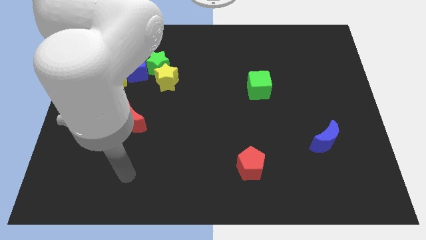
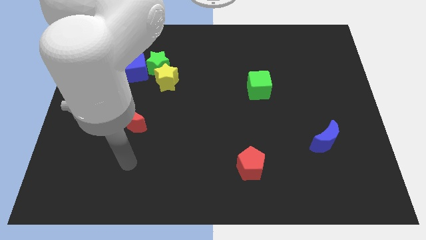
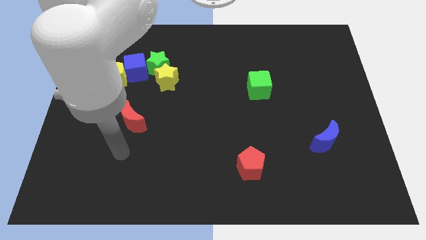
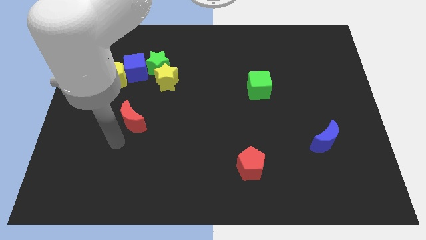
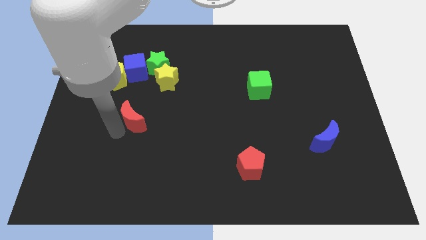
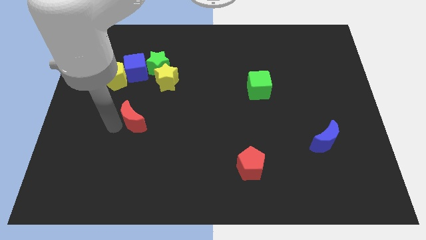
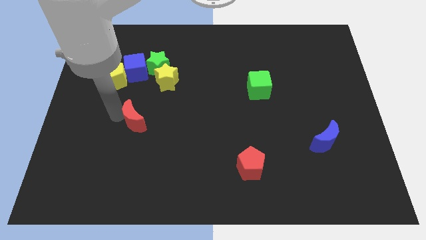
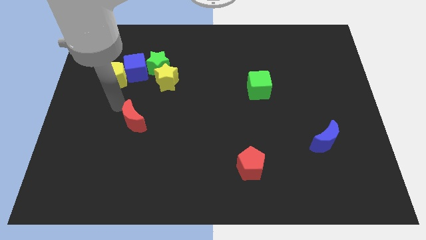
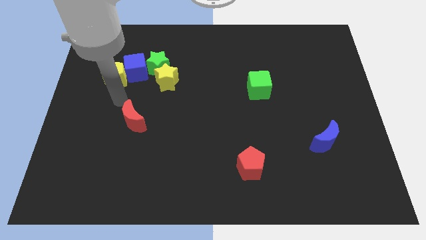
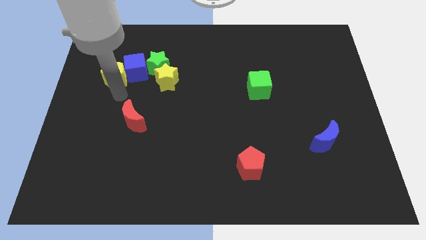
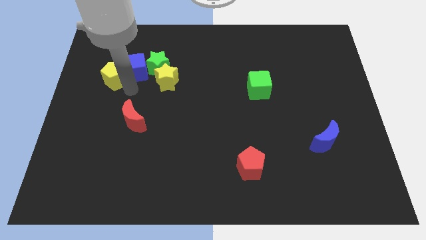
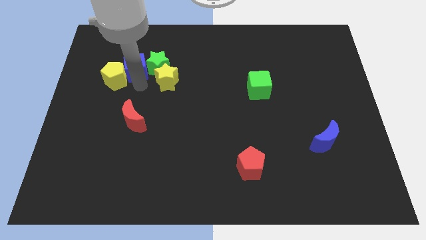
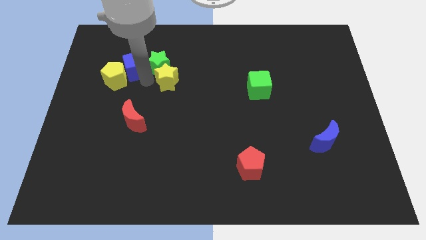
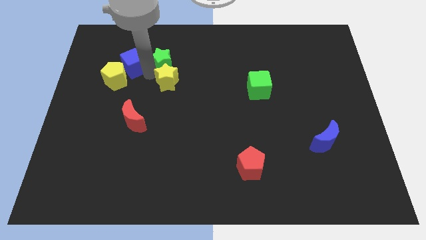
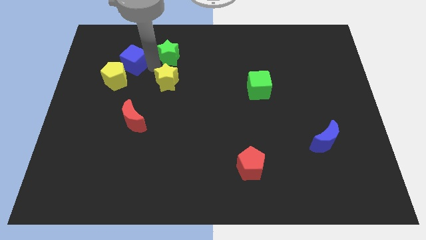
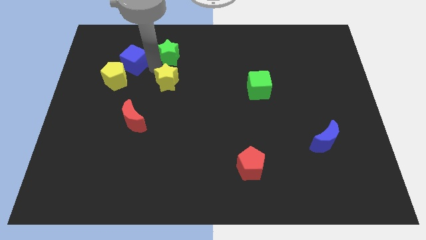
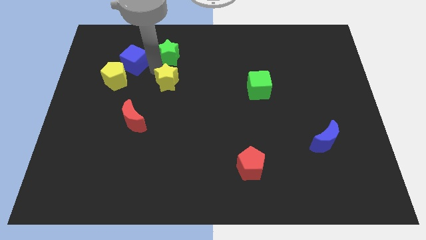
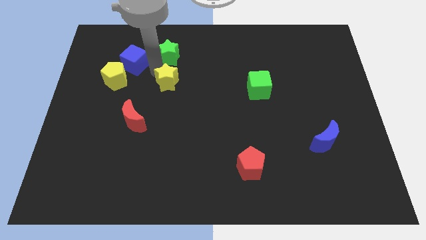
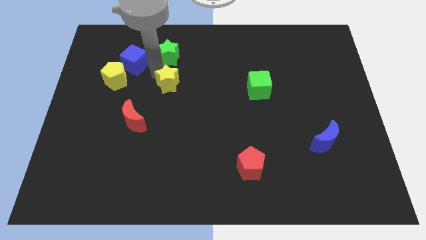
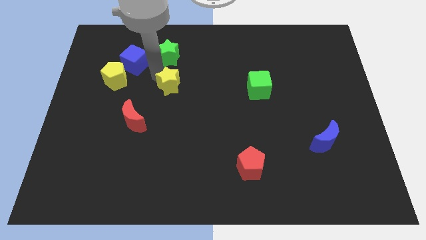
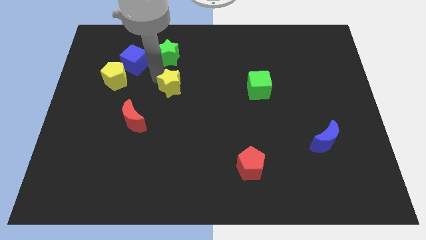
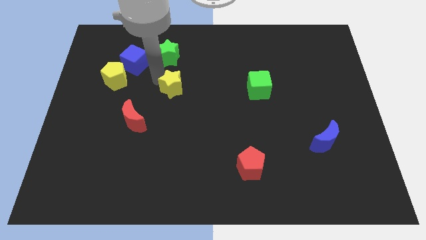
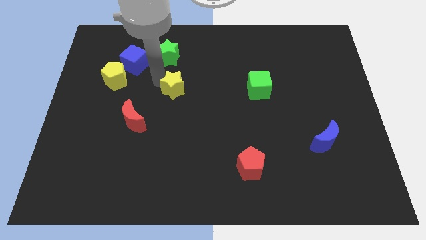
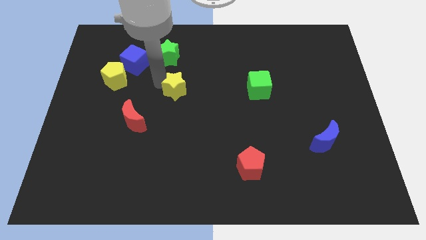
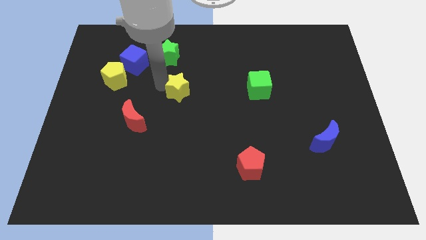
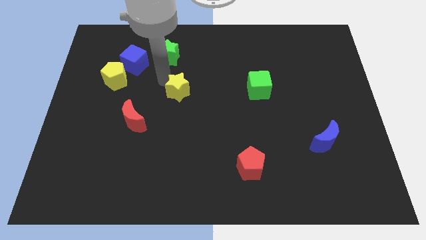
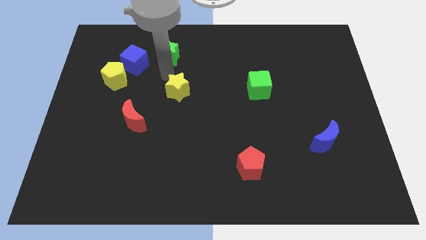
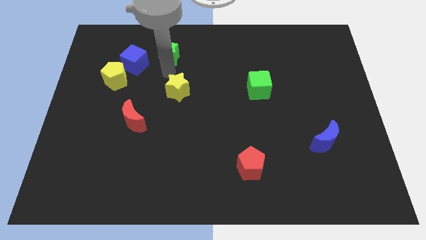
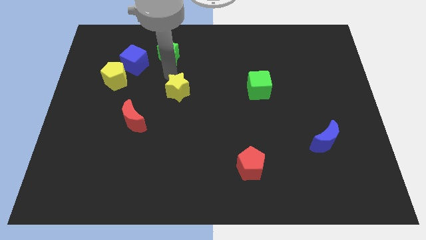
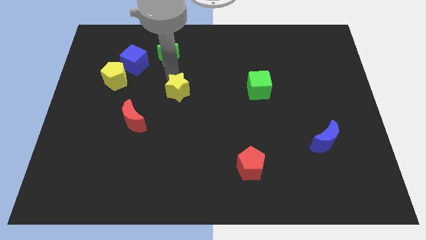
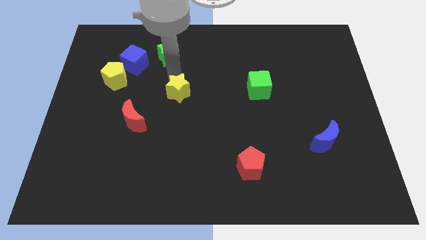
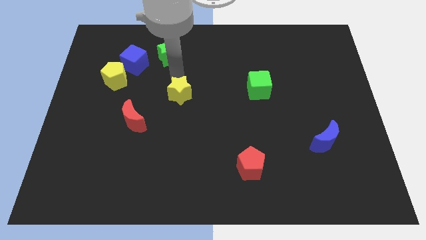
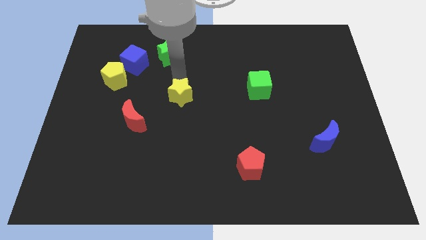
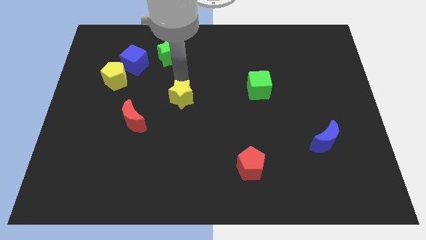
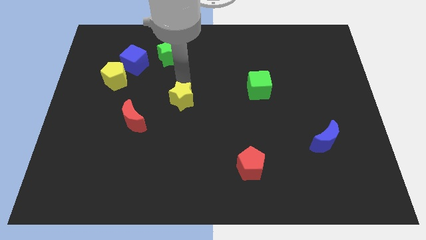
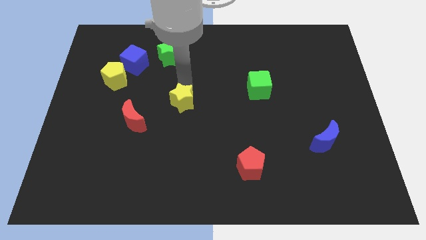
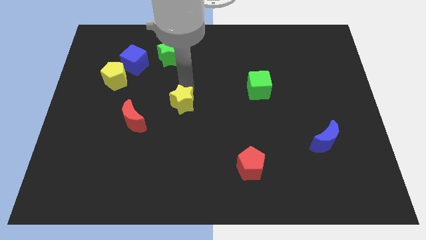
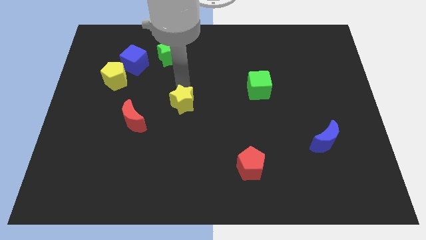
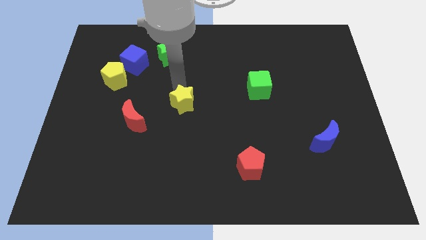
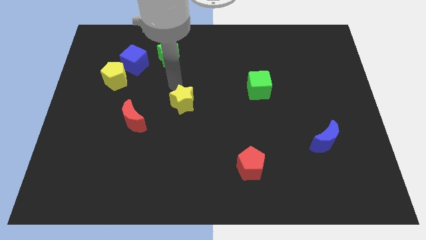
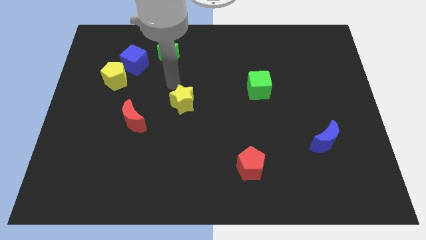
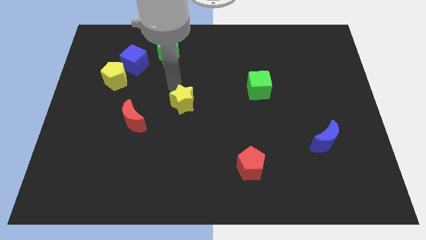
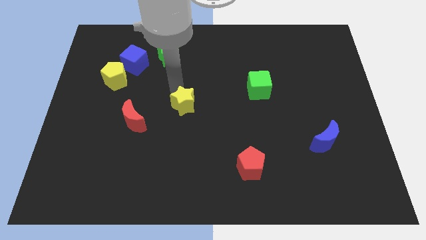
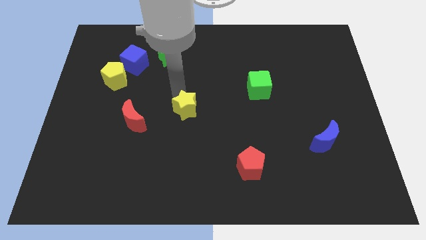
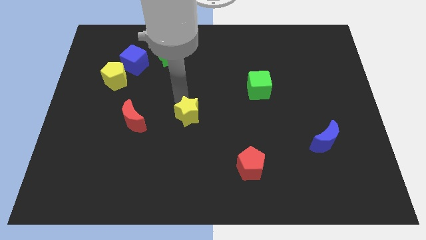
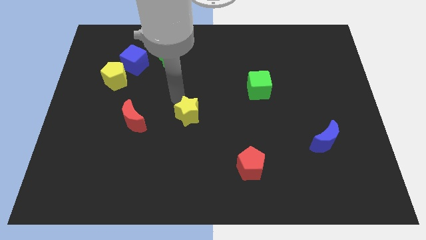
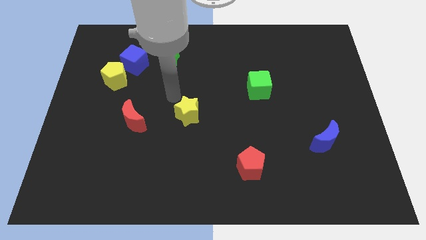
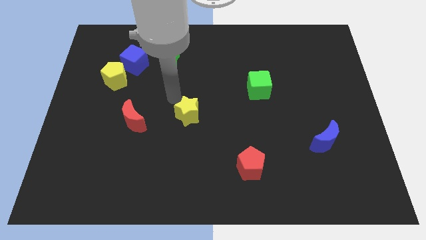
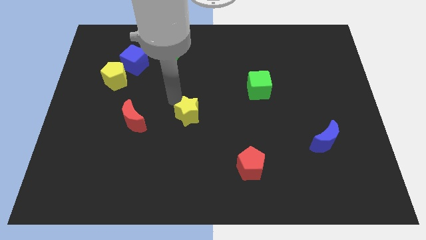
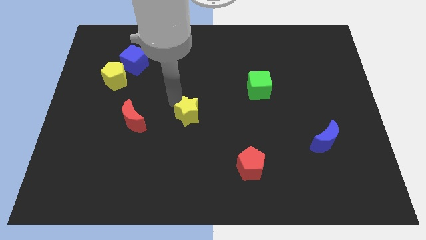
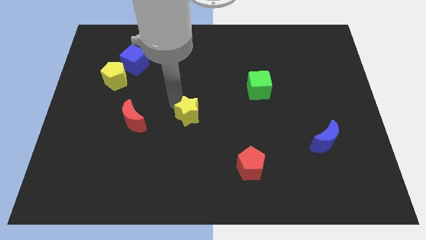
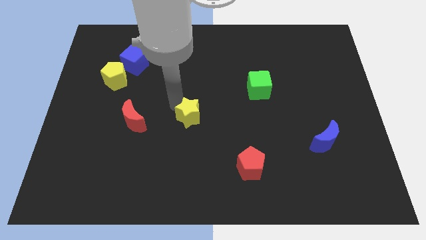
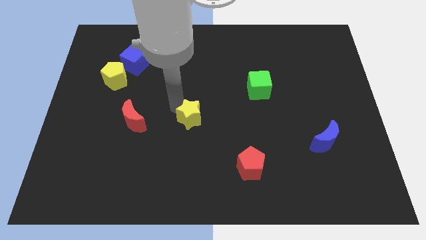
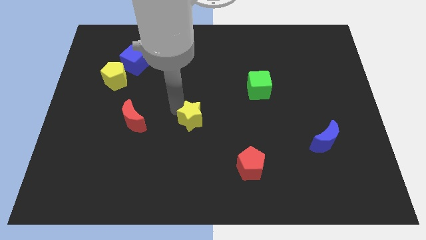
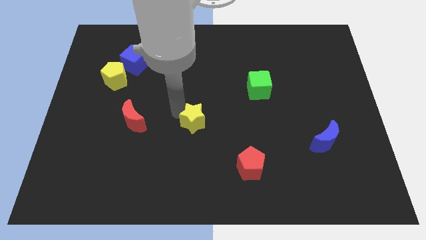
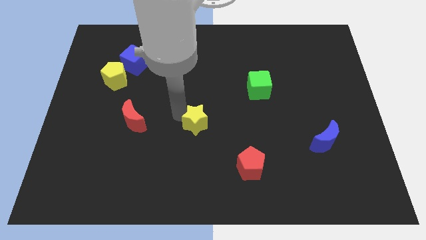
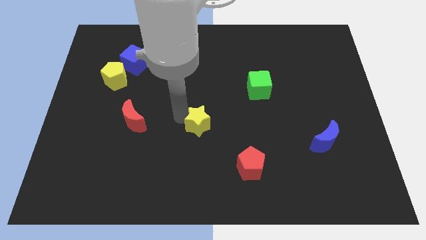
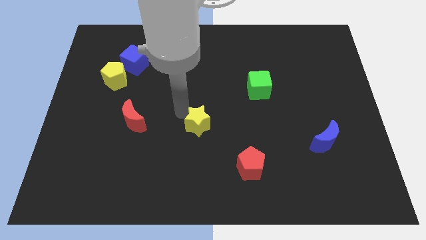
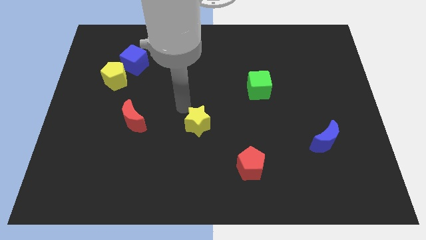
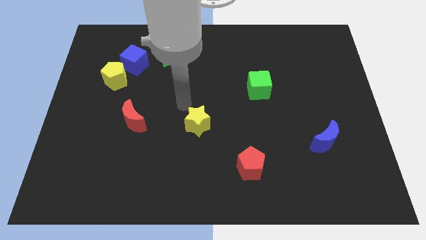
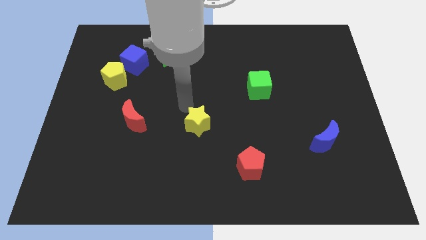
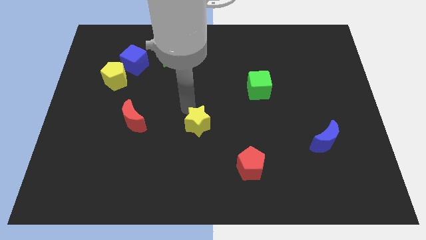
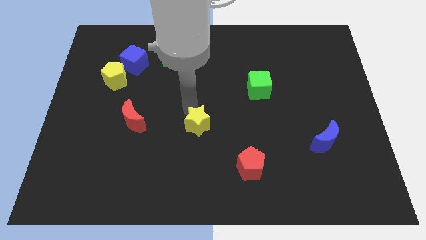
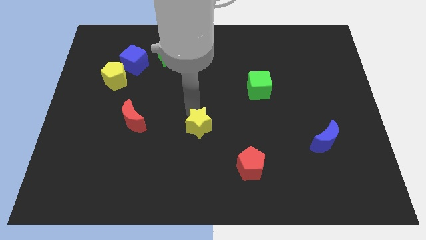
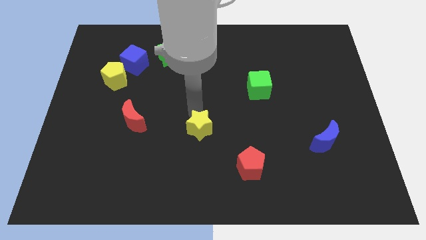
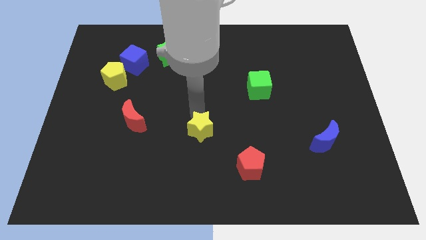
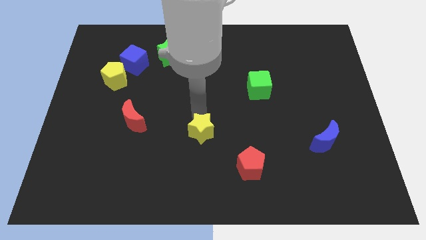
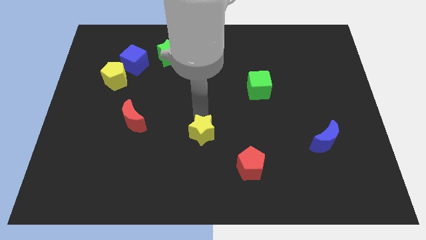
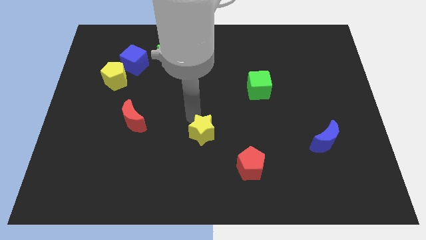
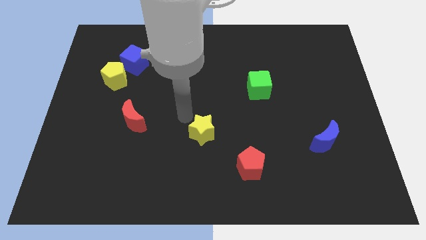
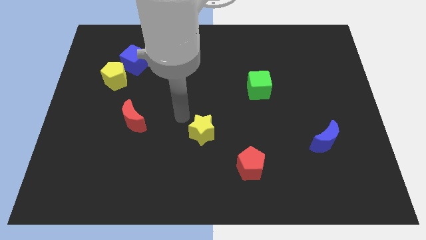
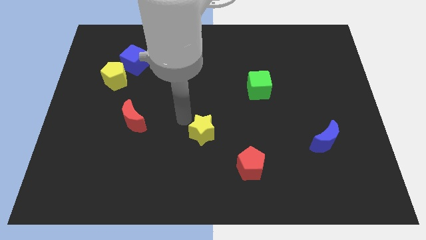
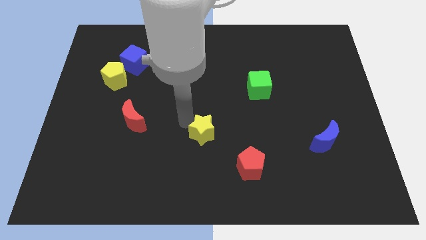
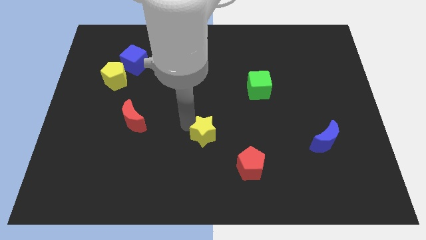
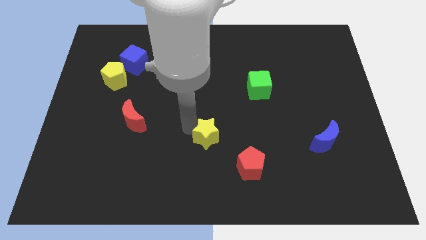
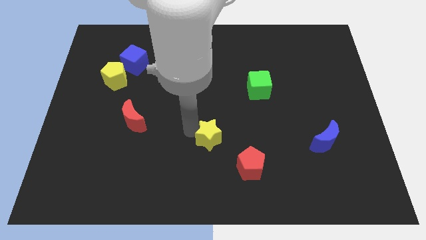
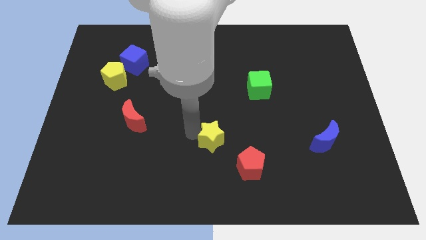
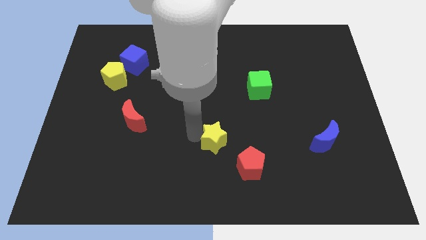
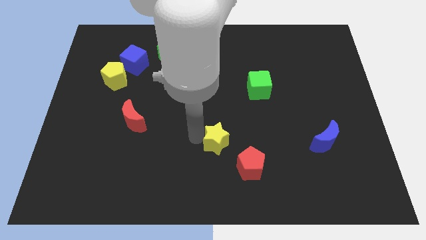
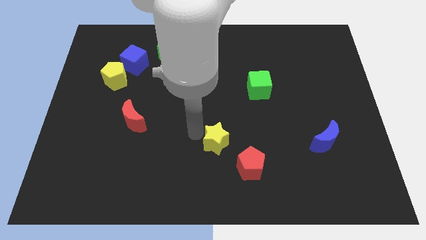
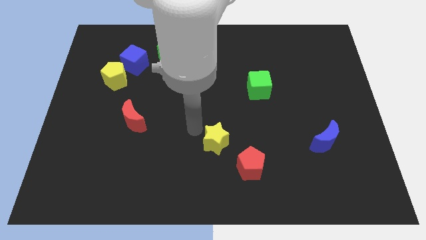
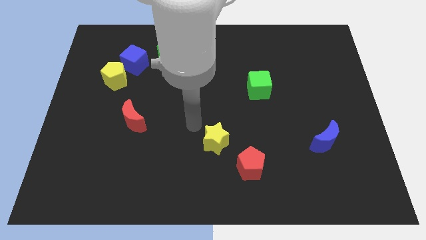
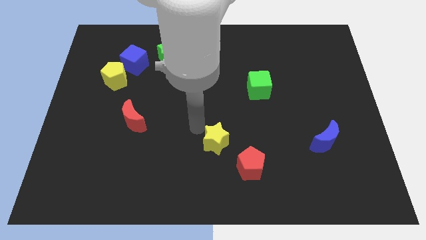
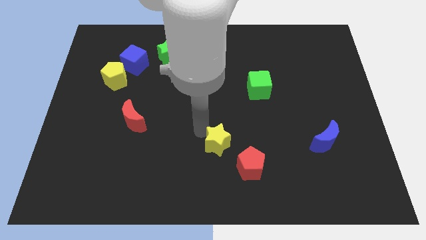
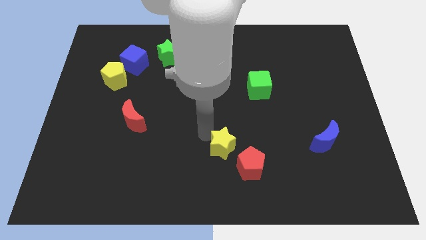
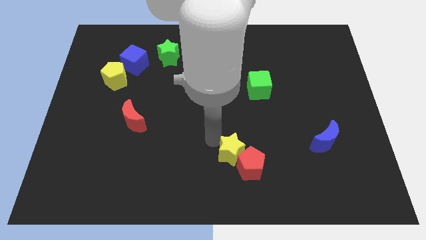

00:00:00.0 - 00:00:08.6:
push the yellow star next to the red pentagon
